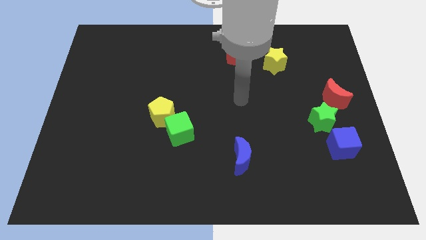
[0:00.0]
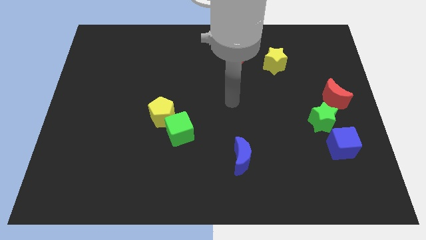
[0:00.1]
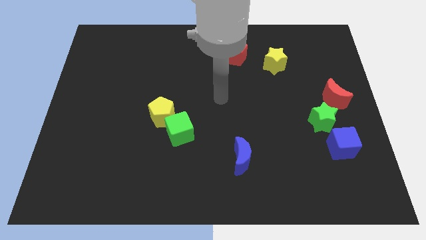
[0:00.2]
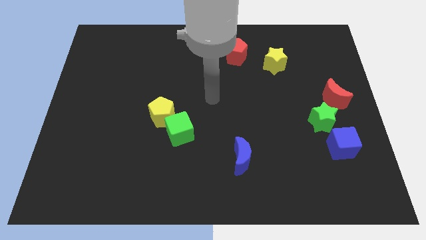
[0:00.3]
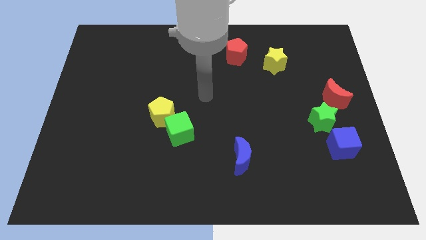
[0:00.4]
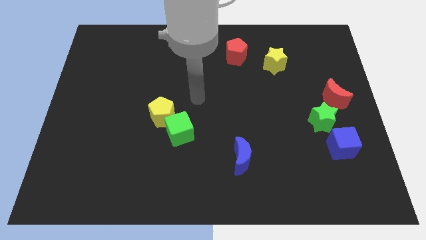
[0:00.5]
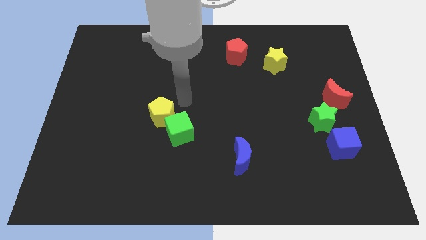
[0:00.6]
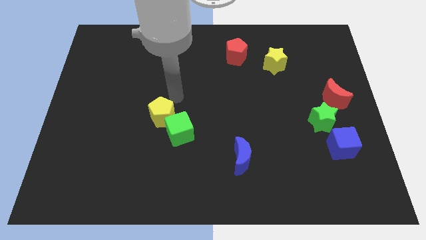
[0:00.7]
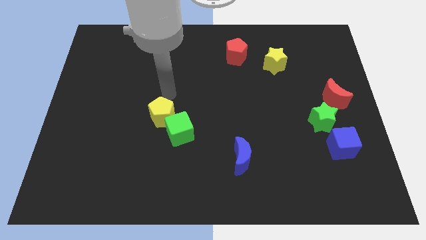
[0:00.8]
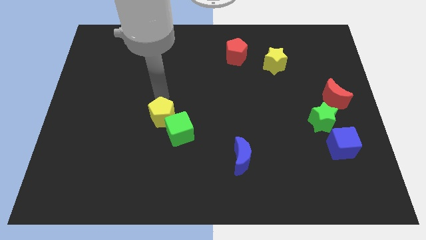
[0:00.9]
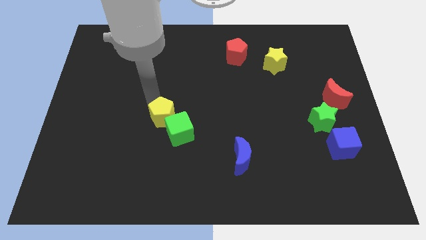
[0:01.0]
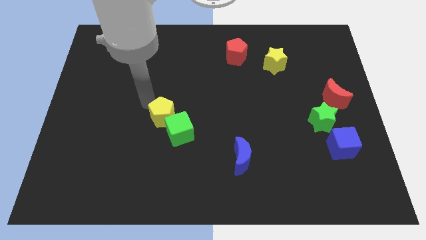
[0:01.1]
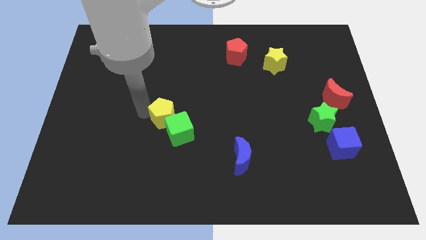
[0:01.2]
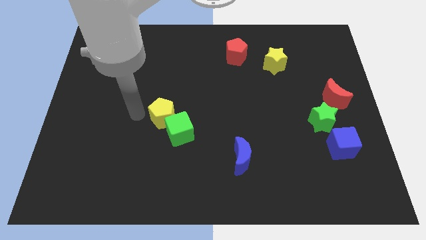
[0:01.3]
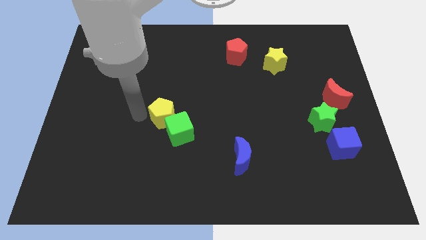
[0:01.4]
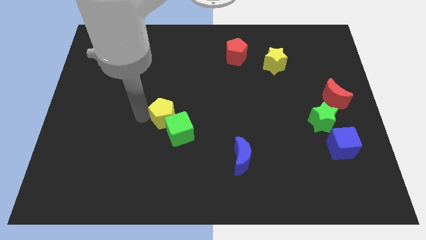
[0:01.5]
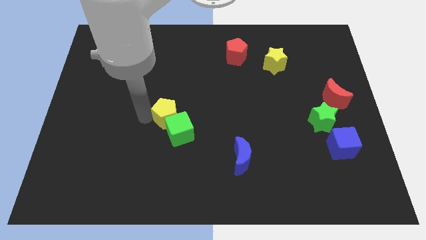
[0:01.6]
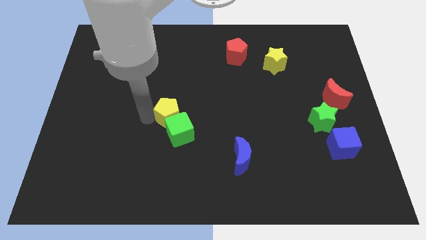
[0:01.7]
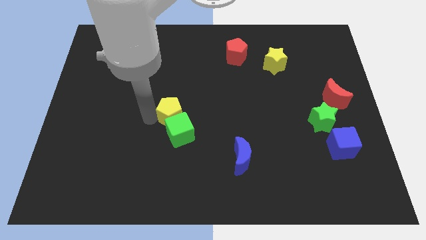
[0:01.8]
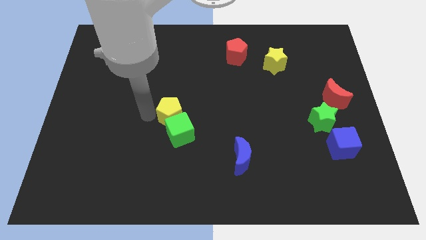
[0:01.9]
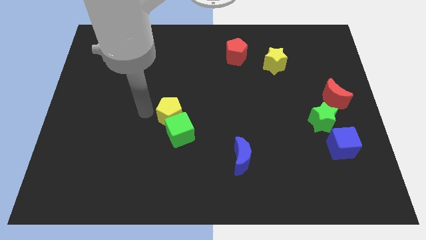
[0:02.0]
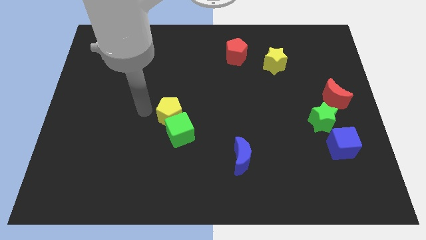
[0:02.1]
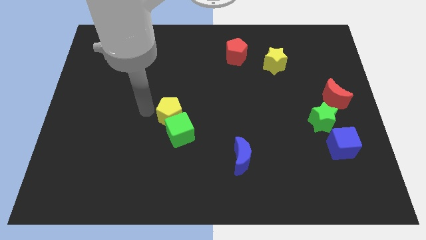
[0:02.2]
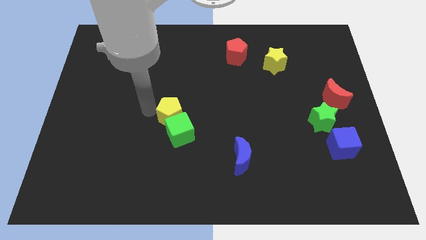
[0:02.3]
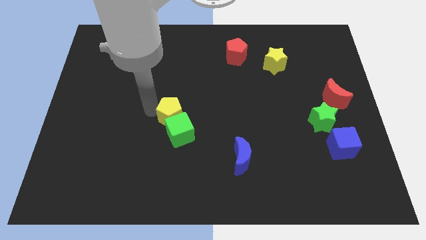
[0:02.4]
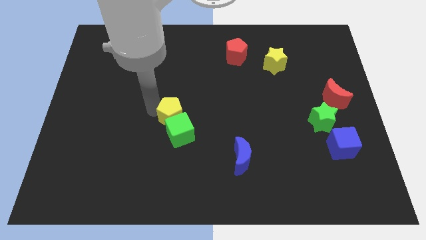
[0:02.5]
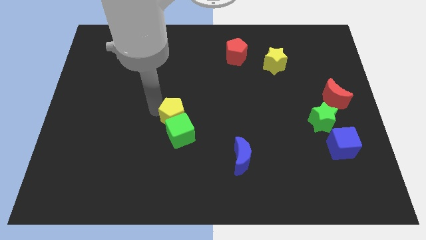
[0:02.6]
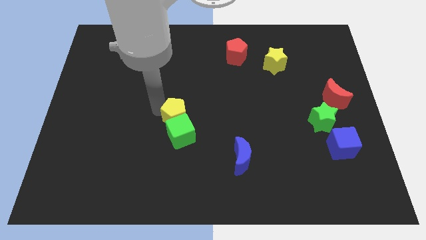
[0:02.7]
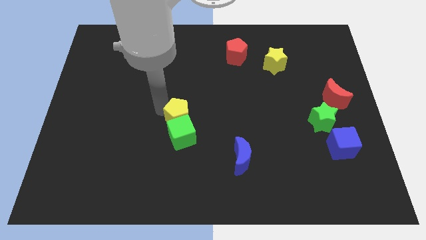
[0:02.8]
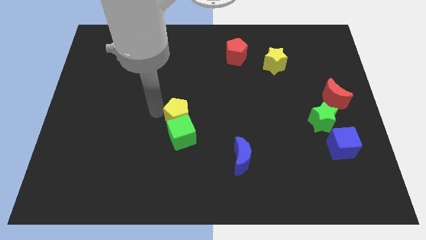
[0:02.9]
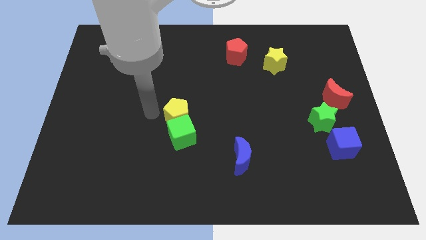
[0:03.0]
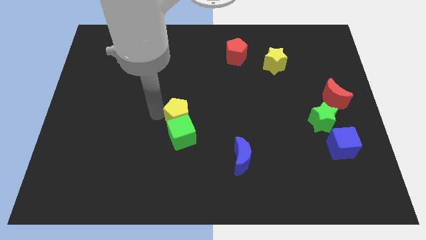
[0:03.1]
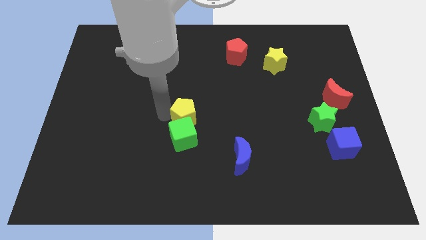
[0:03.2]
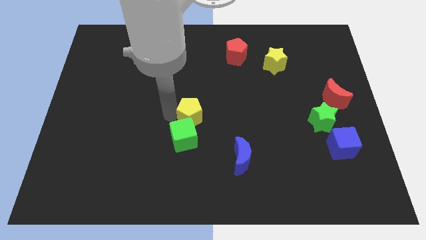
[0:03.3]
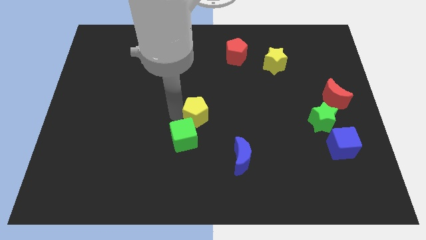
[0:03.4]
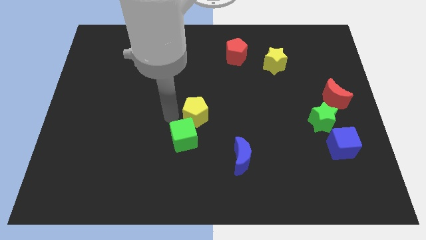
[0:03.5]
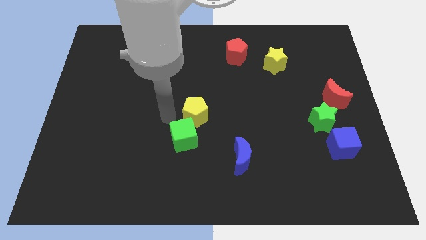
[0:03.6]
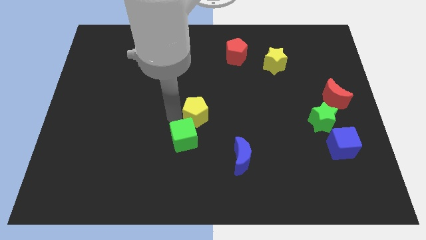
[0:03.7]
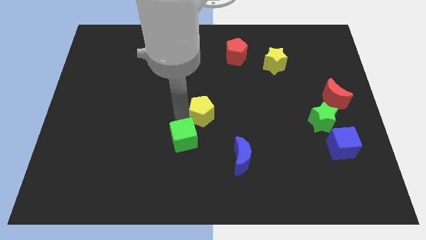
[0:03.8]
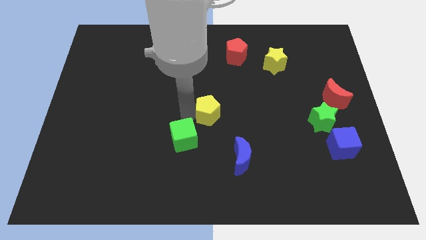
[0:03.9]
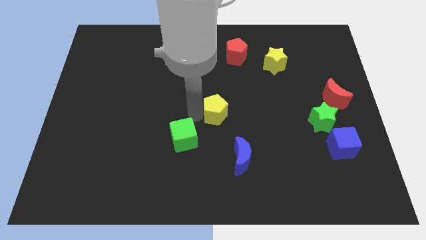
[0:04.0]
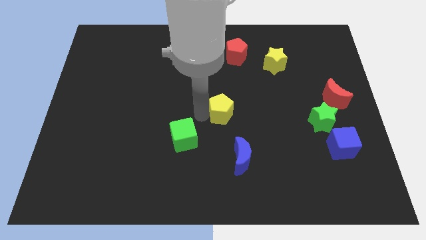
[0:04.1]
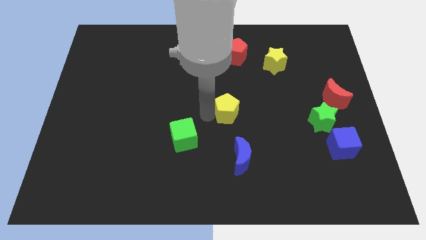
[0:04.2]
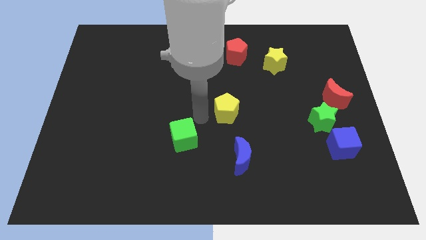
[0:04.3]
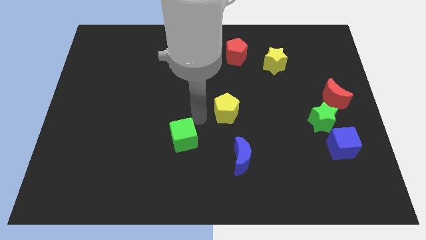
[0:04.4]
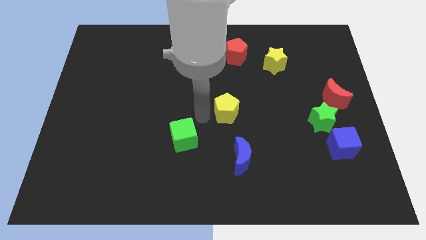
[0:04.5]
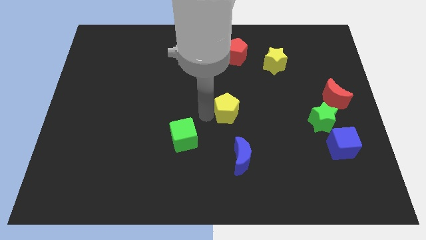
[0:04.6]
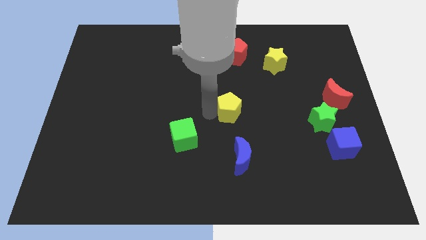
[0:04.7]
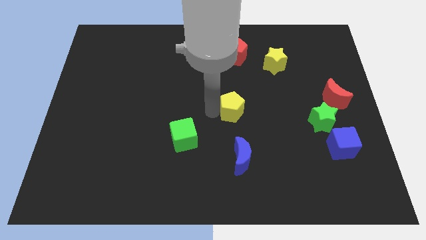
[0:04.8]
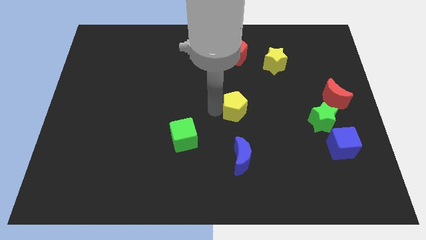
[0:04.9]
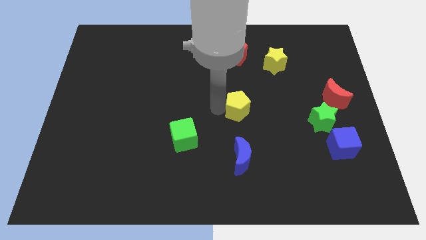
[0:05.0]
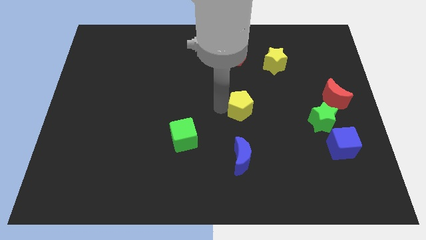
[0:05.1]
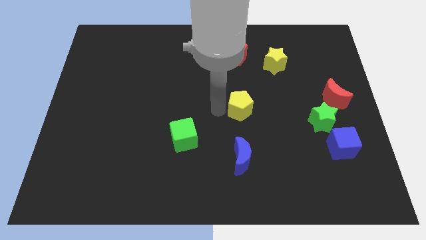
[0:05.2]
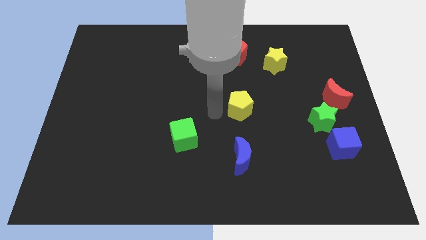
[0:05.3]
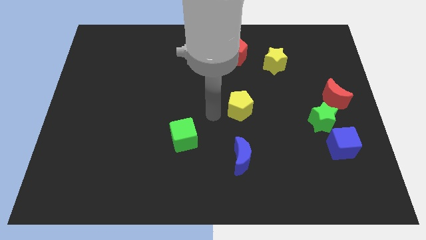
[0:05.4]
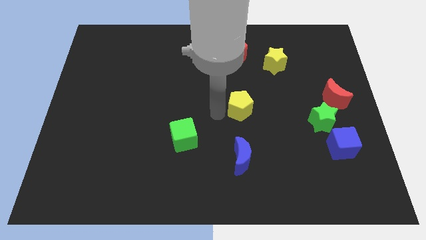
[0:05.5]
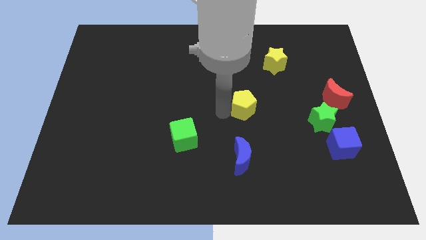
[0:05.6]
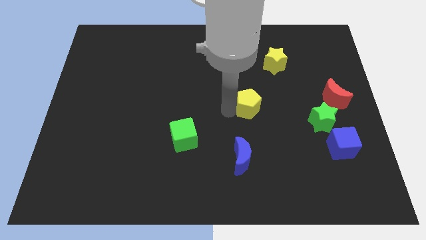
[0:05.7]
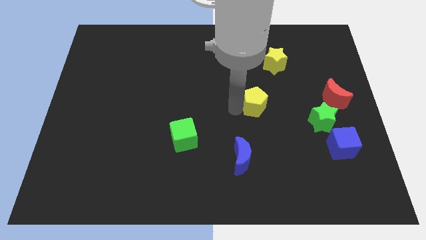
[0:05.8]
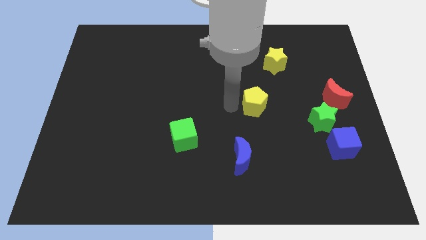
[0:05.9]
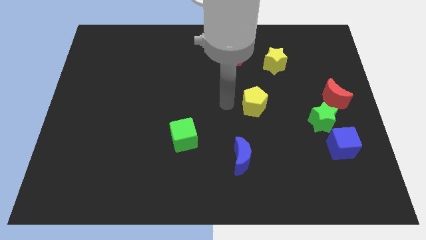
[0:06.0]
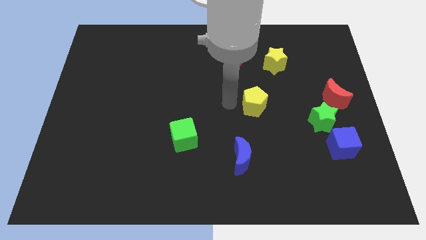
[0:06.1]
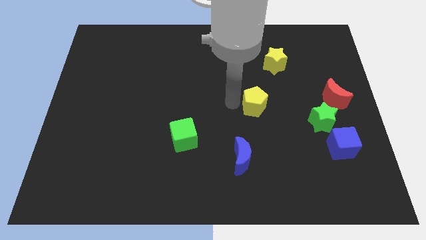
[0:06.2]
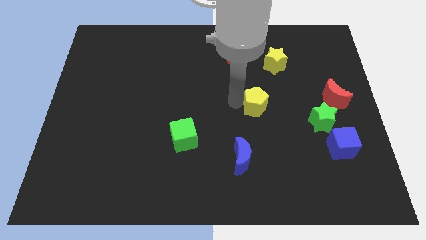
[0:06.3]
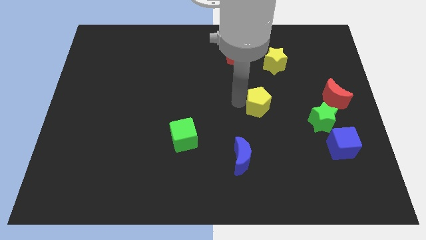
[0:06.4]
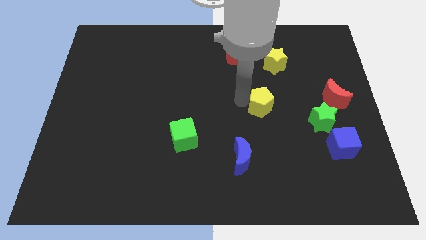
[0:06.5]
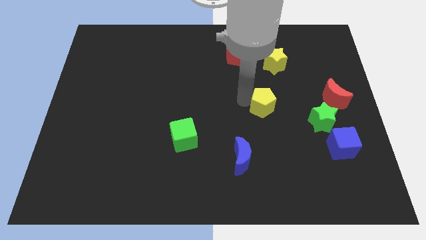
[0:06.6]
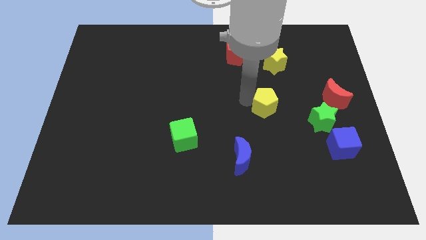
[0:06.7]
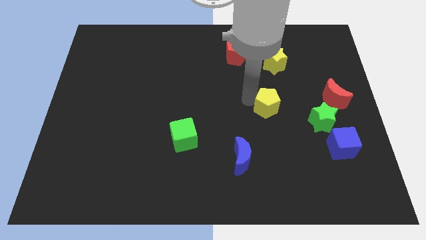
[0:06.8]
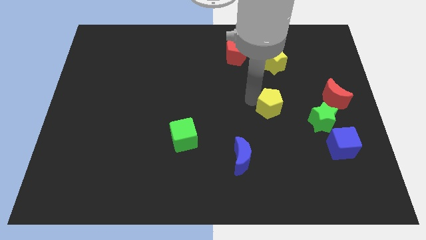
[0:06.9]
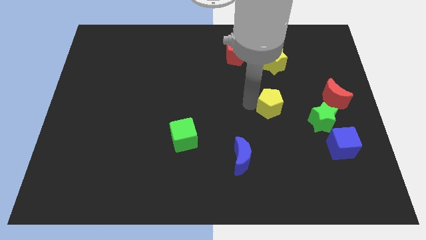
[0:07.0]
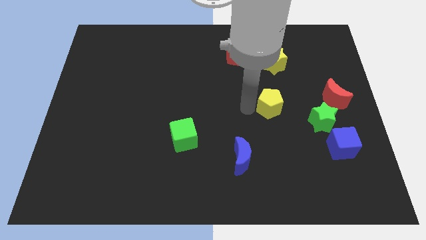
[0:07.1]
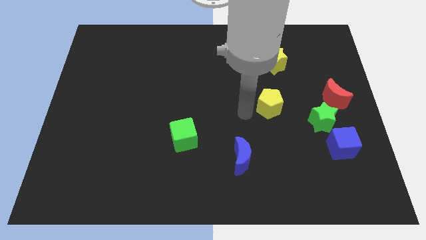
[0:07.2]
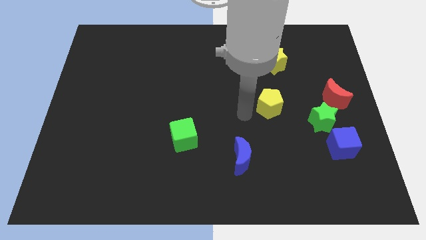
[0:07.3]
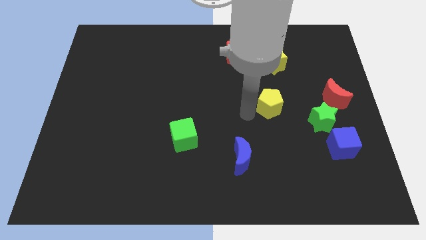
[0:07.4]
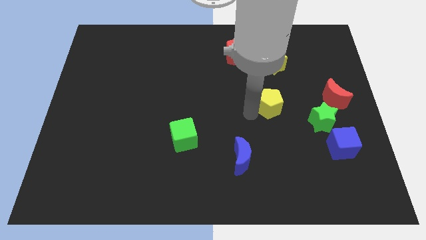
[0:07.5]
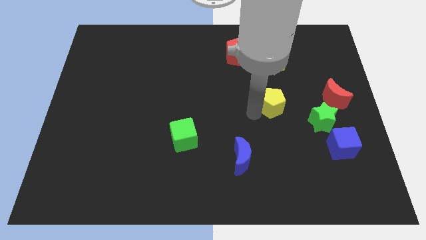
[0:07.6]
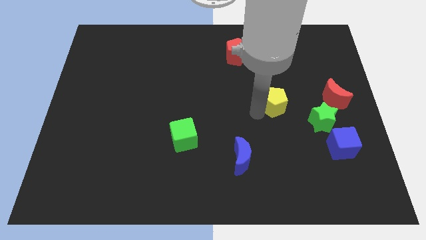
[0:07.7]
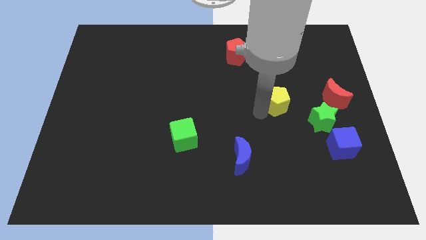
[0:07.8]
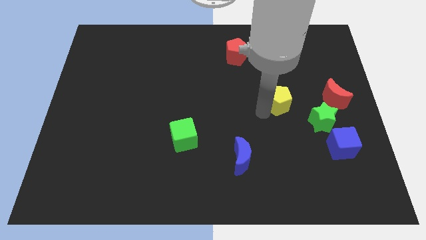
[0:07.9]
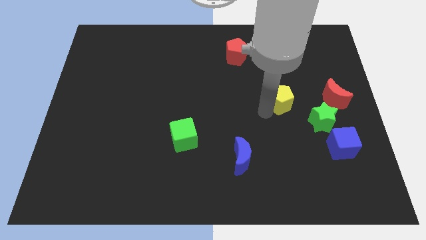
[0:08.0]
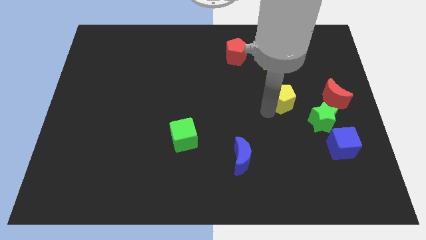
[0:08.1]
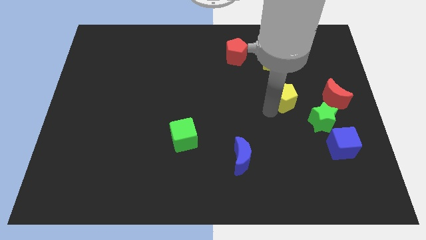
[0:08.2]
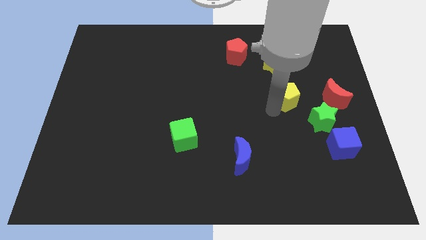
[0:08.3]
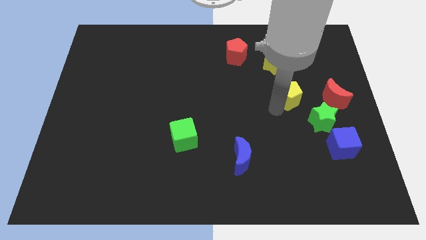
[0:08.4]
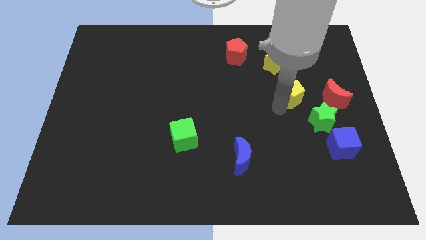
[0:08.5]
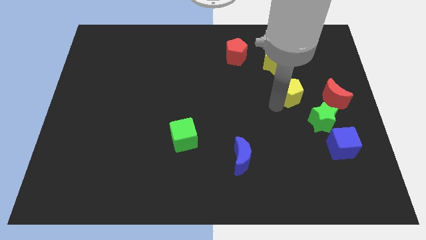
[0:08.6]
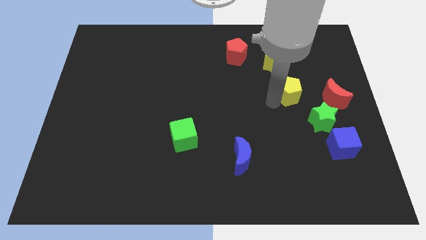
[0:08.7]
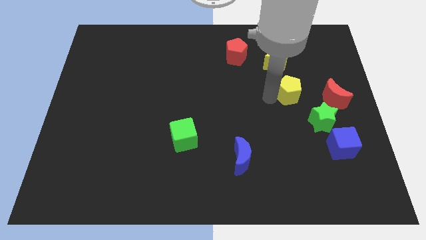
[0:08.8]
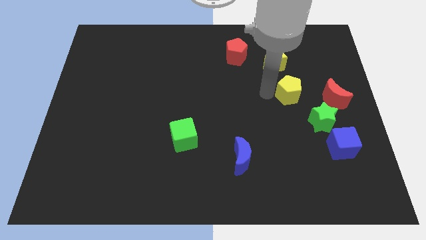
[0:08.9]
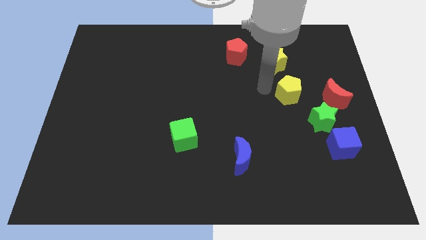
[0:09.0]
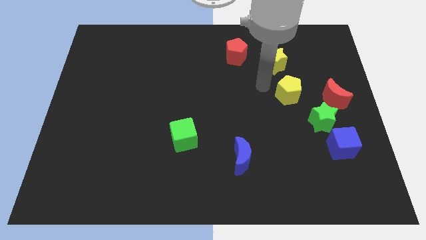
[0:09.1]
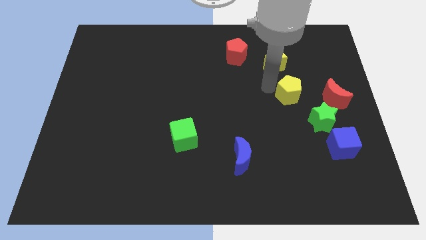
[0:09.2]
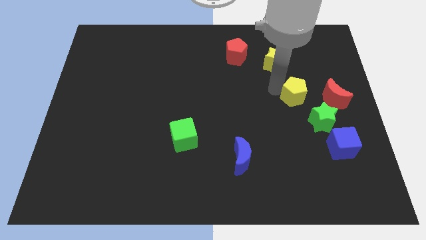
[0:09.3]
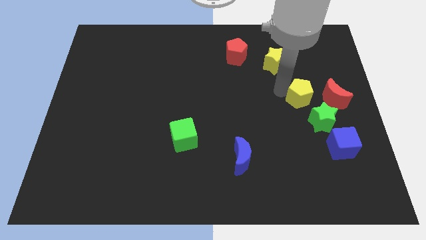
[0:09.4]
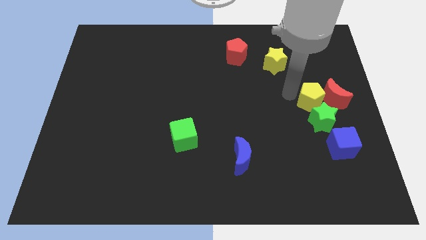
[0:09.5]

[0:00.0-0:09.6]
push the yellow pentagon towards the red moon
